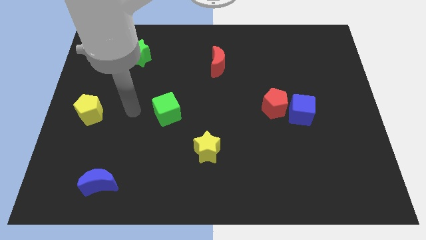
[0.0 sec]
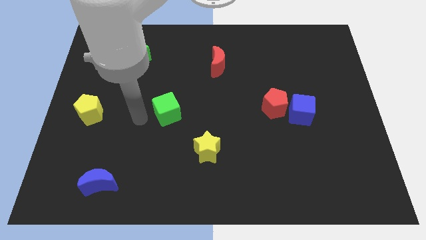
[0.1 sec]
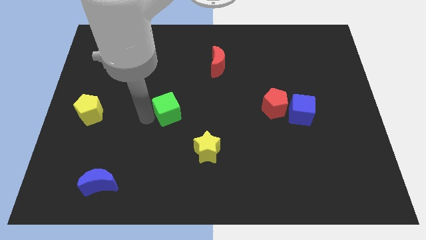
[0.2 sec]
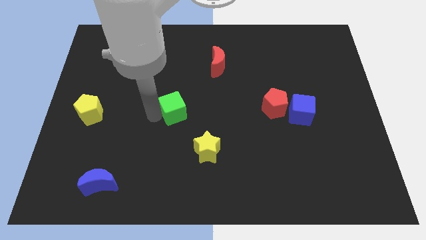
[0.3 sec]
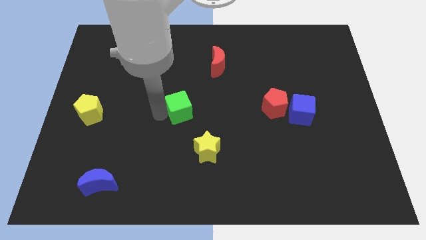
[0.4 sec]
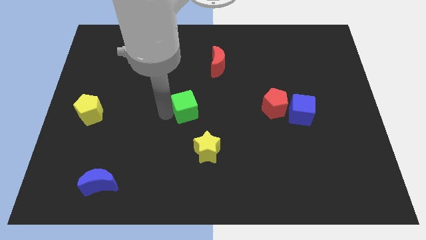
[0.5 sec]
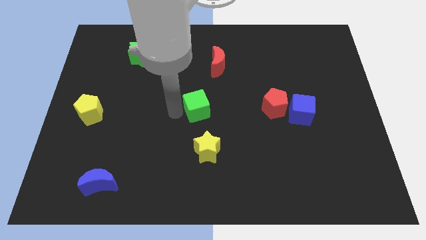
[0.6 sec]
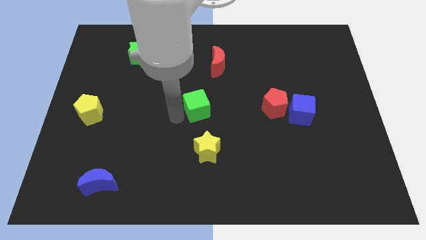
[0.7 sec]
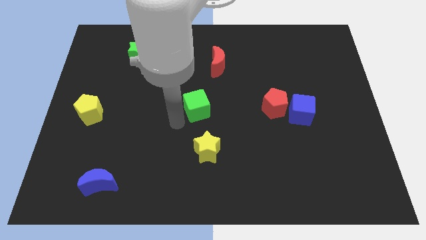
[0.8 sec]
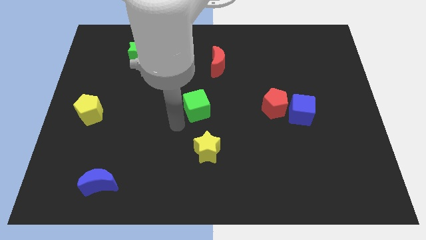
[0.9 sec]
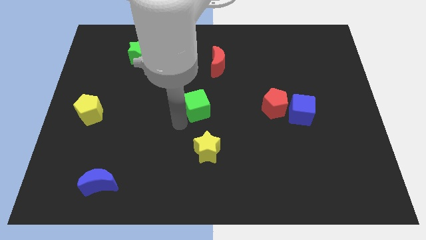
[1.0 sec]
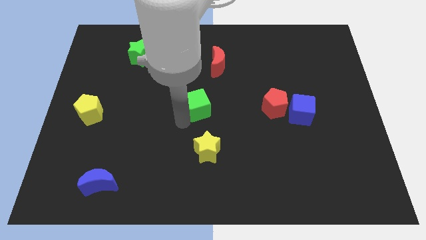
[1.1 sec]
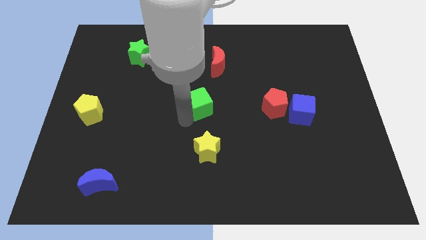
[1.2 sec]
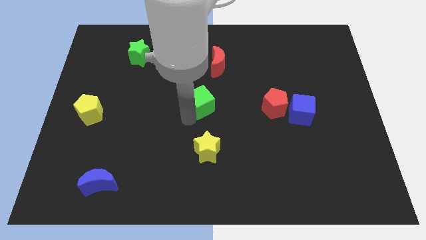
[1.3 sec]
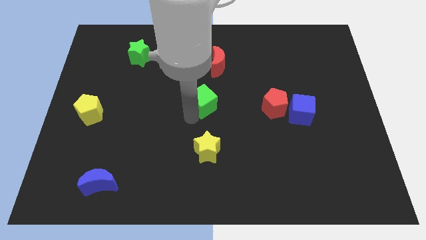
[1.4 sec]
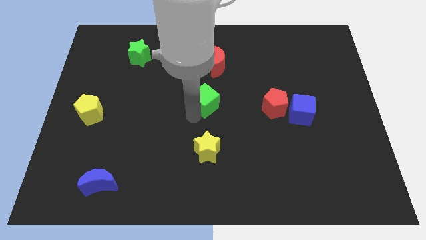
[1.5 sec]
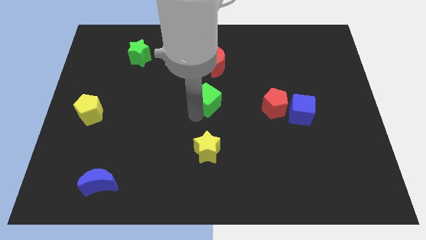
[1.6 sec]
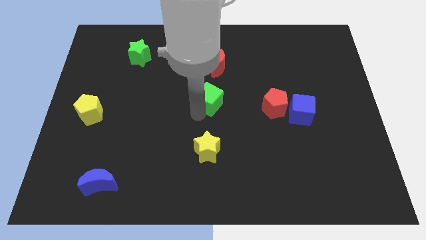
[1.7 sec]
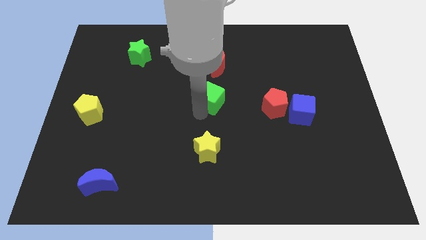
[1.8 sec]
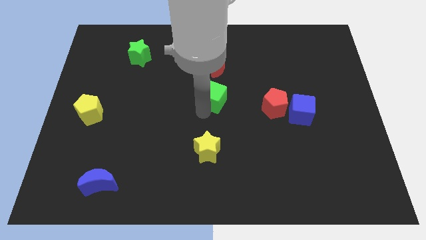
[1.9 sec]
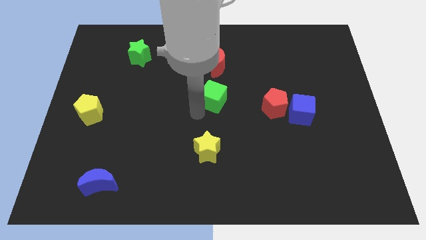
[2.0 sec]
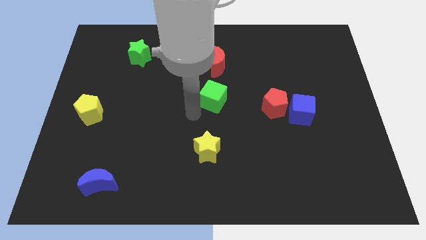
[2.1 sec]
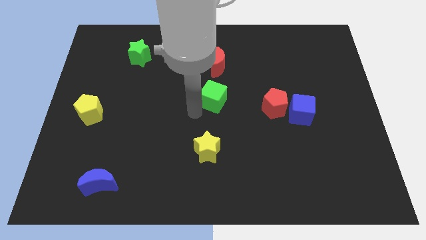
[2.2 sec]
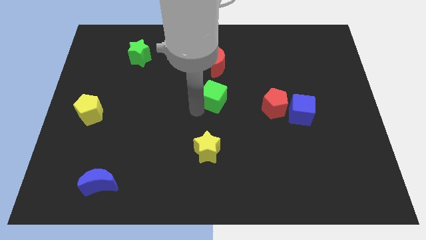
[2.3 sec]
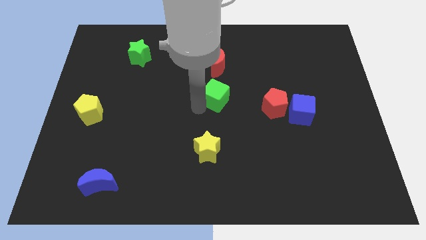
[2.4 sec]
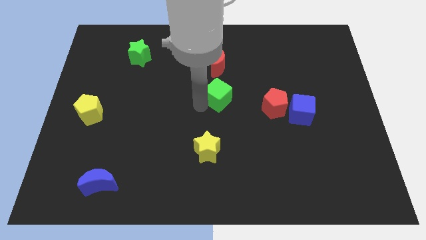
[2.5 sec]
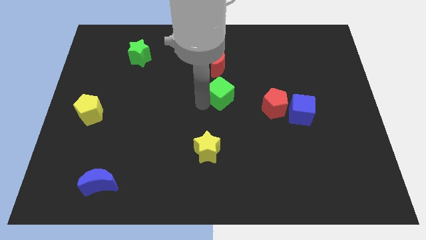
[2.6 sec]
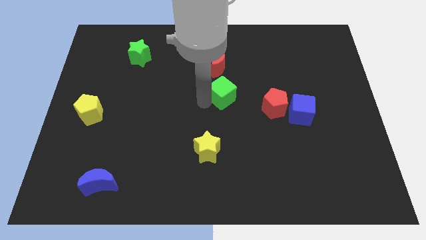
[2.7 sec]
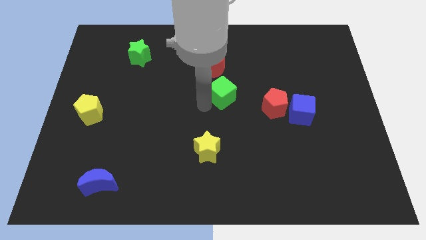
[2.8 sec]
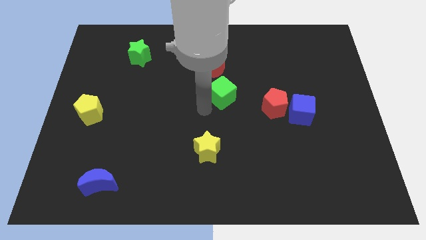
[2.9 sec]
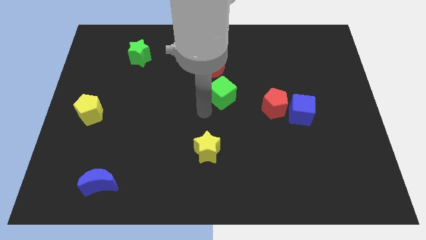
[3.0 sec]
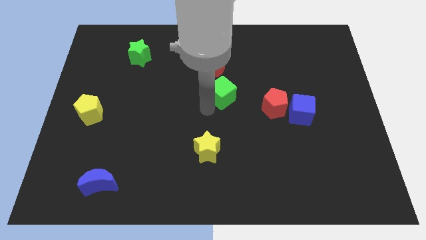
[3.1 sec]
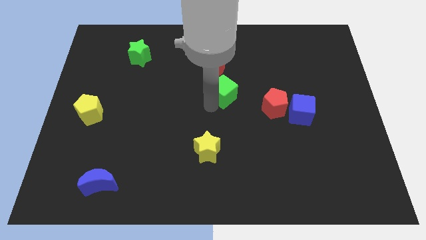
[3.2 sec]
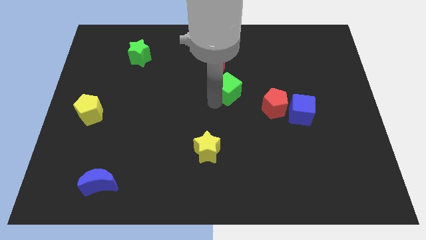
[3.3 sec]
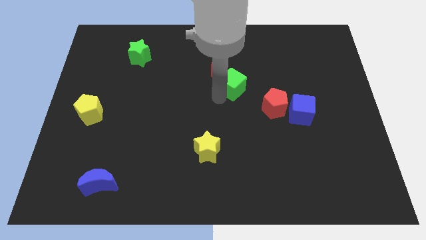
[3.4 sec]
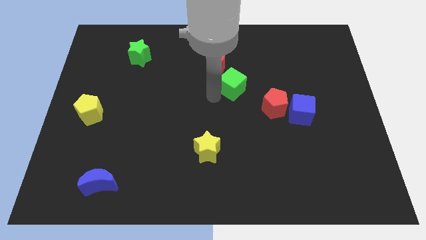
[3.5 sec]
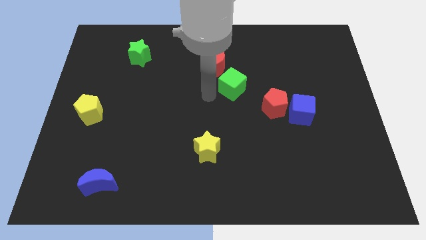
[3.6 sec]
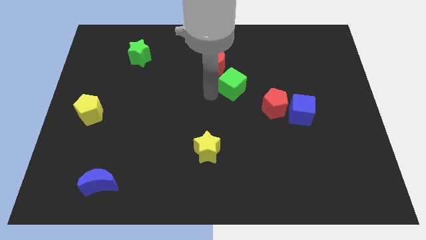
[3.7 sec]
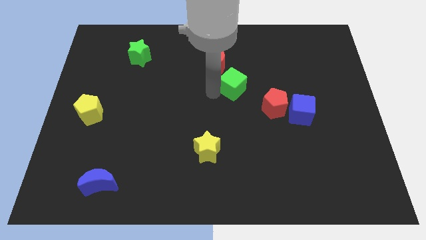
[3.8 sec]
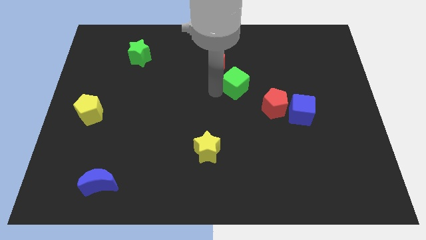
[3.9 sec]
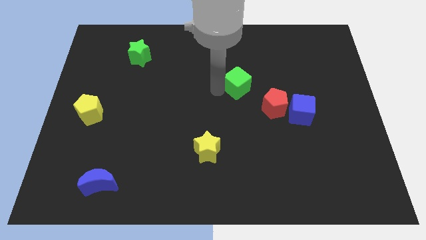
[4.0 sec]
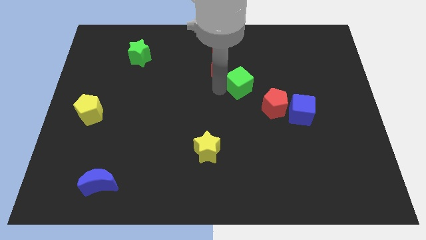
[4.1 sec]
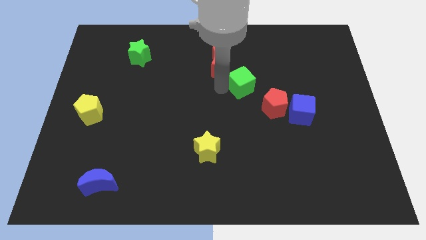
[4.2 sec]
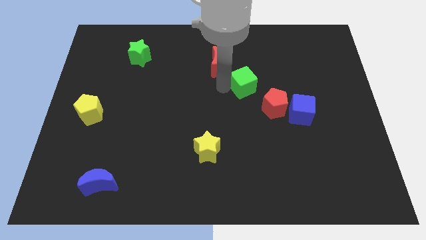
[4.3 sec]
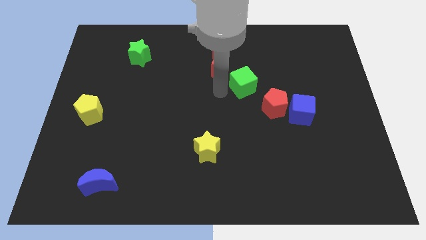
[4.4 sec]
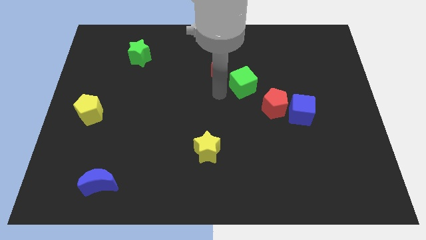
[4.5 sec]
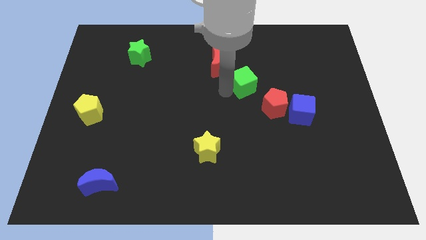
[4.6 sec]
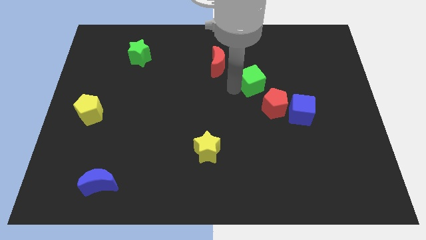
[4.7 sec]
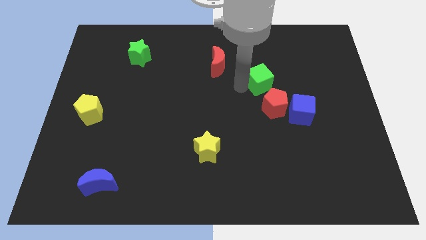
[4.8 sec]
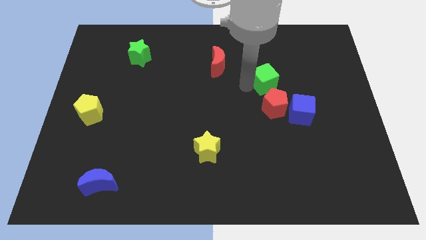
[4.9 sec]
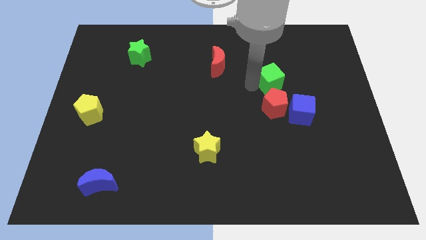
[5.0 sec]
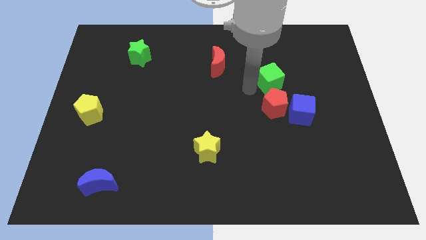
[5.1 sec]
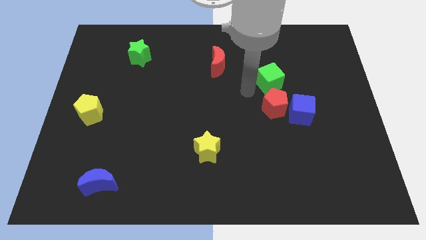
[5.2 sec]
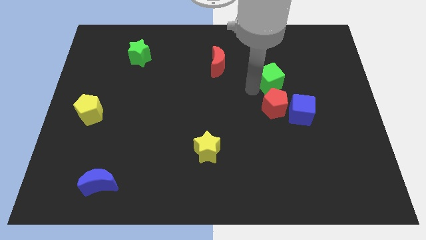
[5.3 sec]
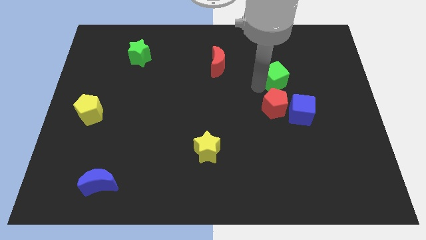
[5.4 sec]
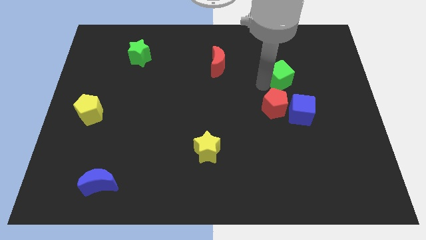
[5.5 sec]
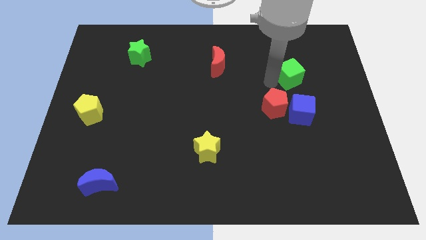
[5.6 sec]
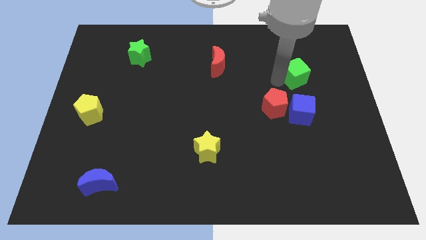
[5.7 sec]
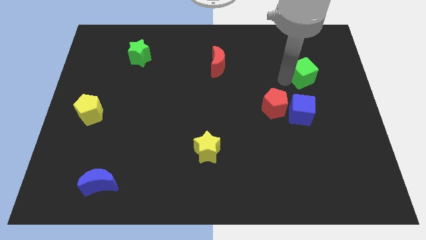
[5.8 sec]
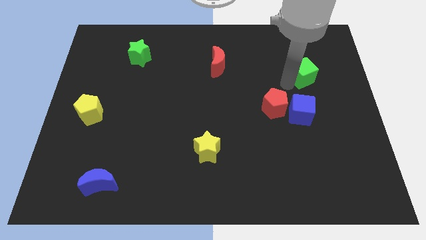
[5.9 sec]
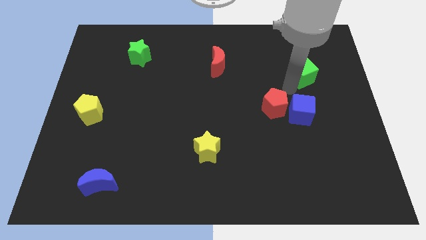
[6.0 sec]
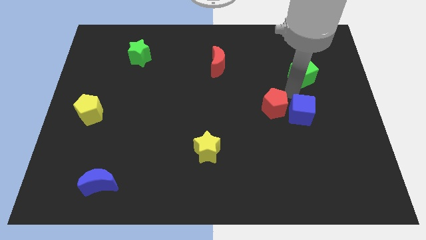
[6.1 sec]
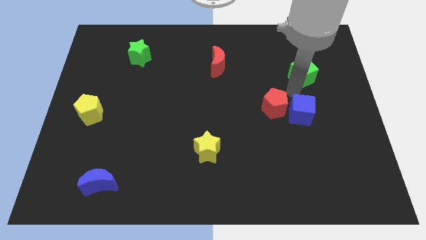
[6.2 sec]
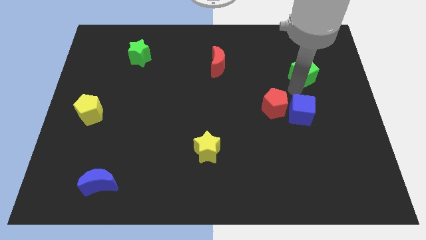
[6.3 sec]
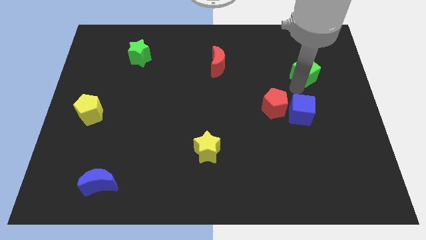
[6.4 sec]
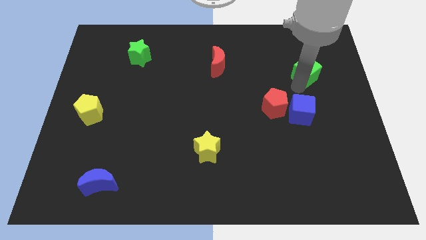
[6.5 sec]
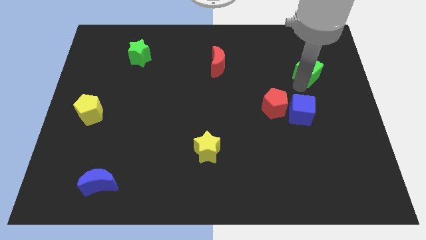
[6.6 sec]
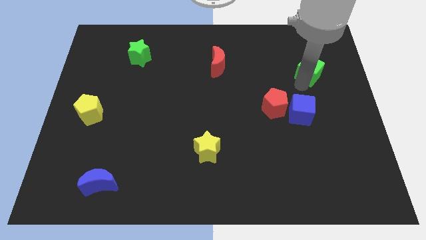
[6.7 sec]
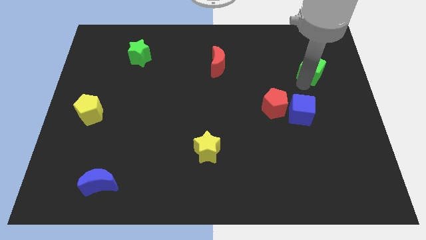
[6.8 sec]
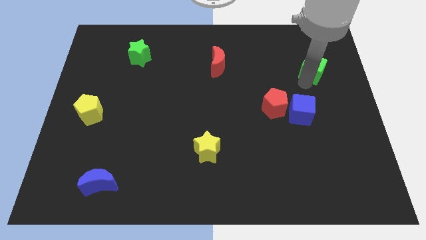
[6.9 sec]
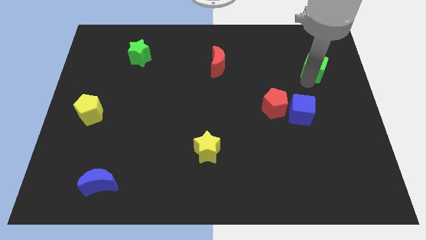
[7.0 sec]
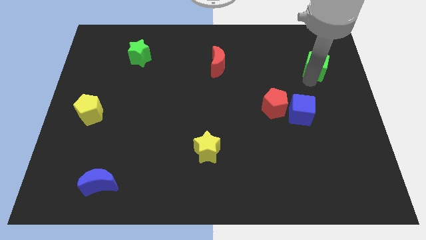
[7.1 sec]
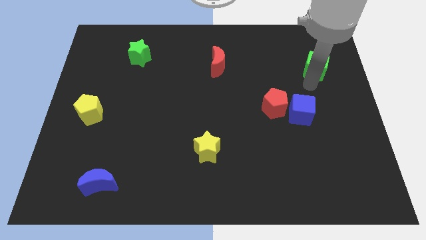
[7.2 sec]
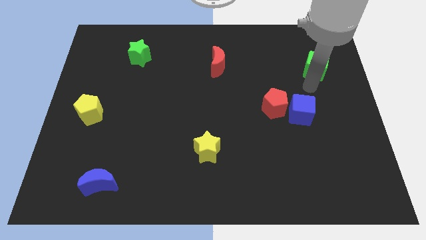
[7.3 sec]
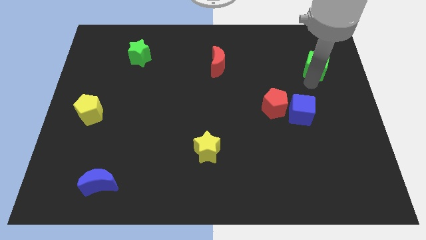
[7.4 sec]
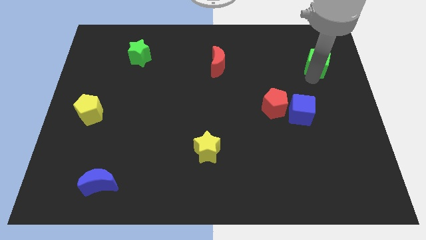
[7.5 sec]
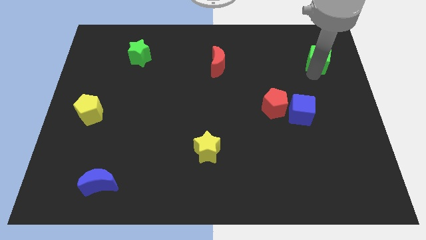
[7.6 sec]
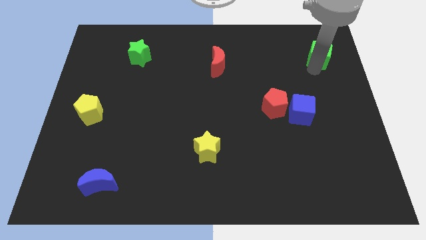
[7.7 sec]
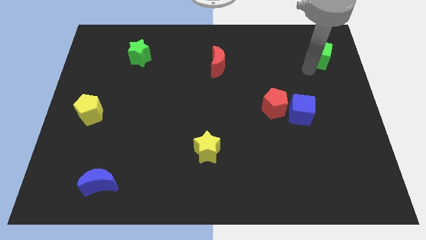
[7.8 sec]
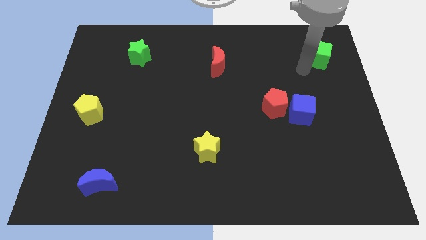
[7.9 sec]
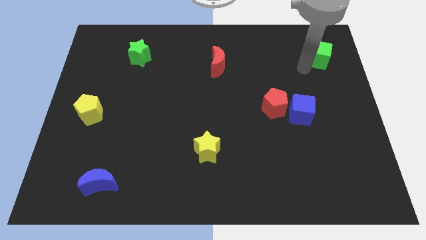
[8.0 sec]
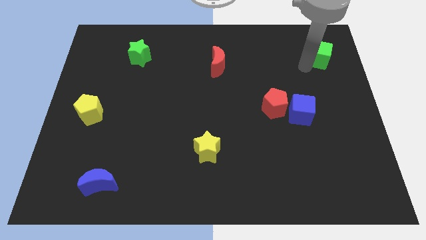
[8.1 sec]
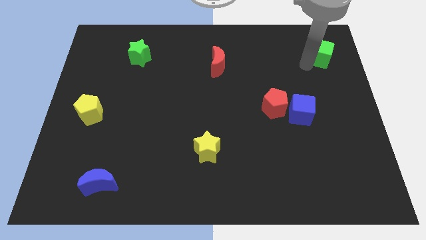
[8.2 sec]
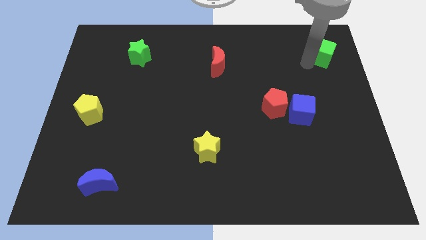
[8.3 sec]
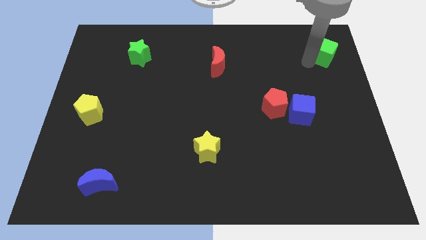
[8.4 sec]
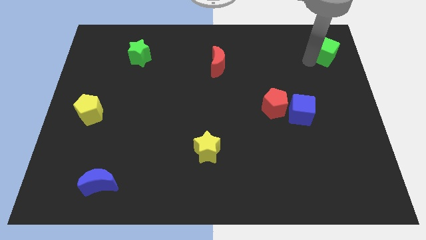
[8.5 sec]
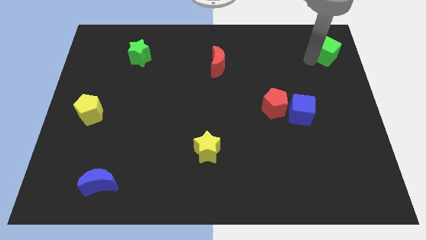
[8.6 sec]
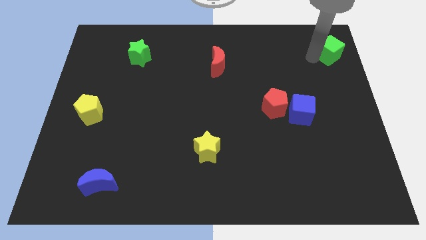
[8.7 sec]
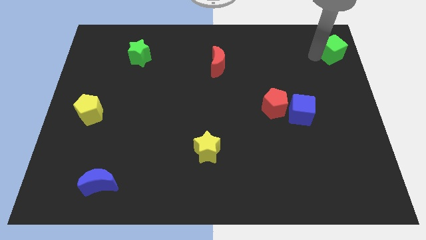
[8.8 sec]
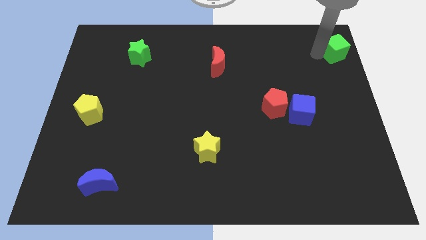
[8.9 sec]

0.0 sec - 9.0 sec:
push the green cube to the top right of the board
